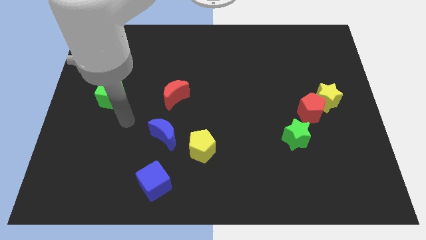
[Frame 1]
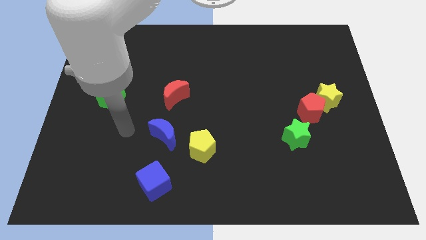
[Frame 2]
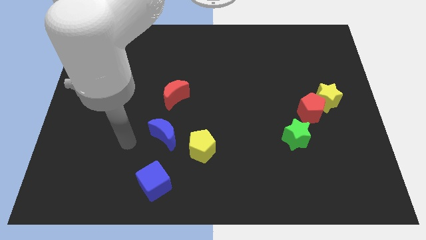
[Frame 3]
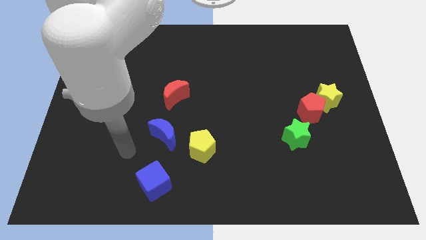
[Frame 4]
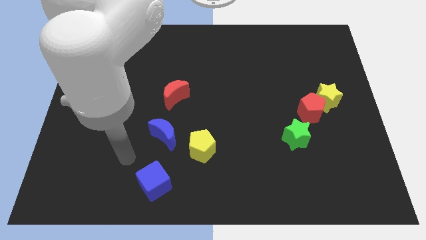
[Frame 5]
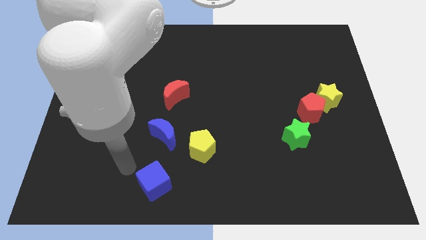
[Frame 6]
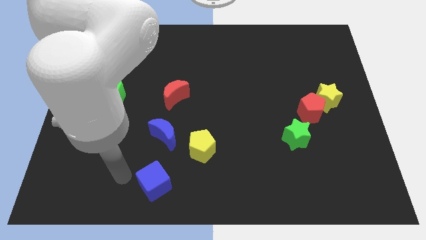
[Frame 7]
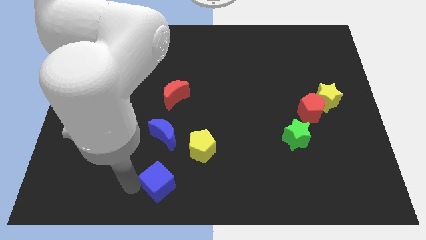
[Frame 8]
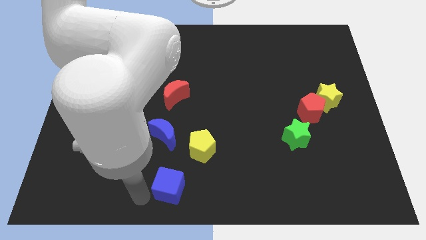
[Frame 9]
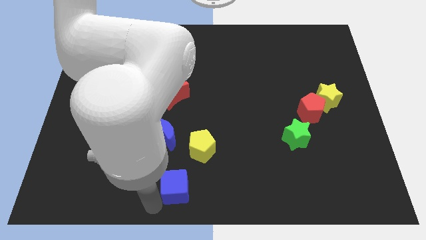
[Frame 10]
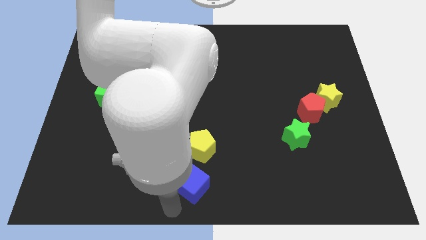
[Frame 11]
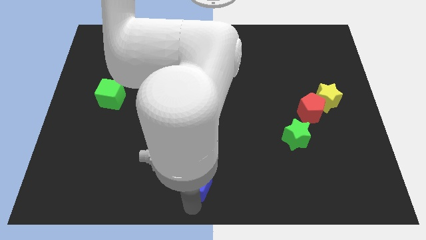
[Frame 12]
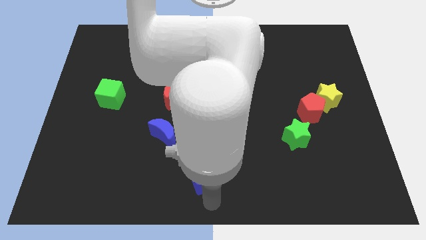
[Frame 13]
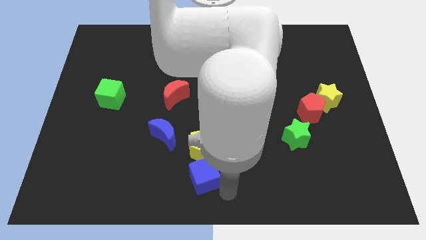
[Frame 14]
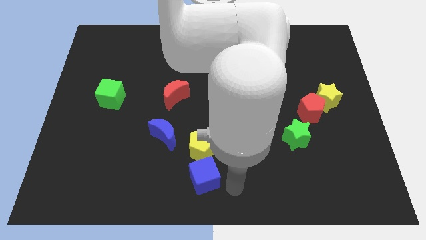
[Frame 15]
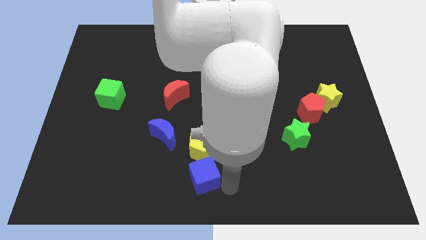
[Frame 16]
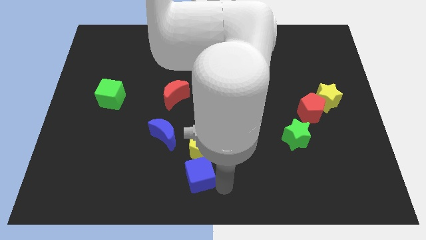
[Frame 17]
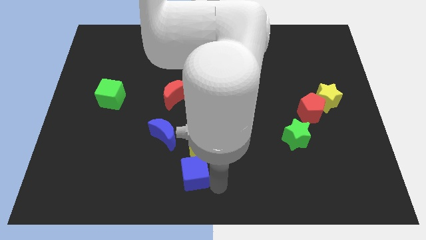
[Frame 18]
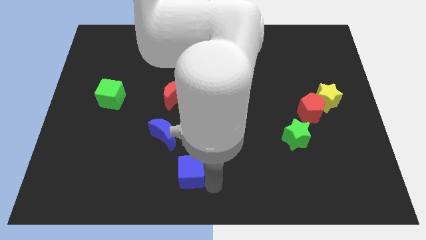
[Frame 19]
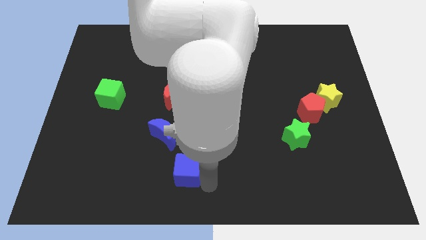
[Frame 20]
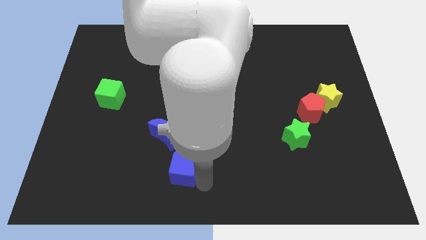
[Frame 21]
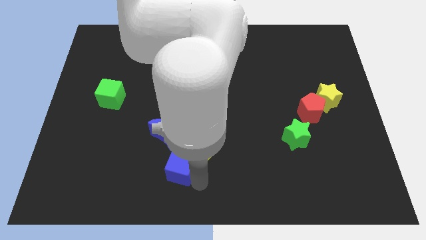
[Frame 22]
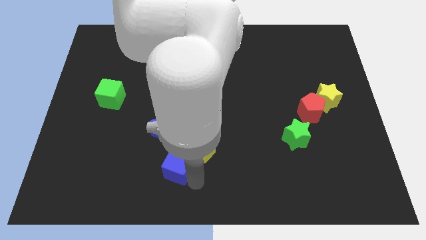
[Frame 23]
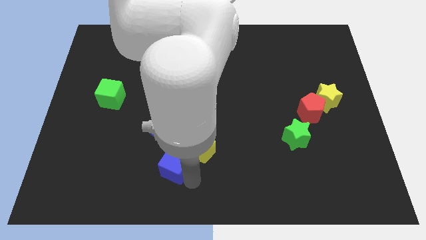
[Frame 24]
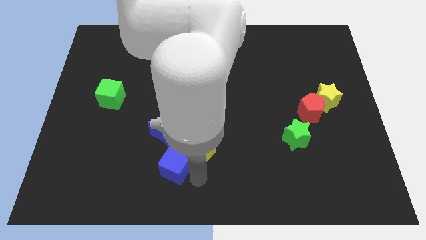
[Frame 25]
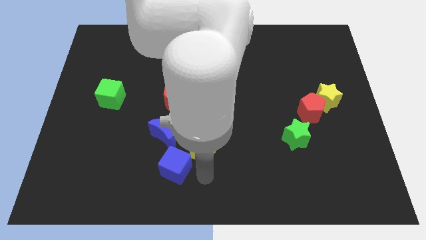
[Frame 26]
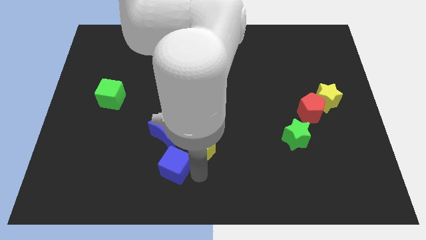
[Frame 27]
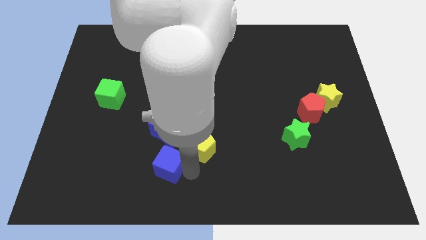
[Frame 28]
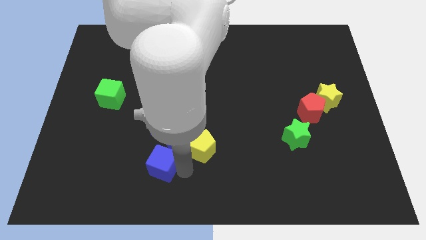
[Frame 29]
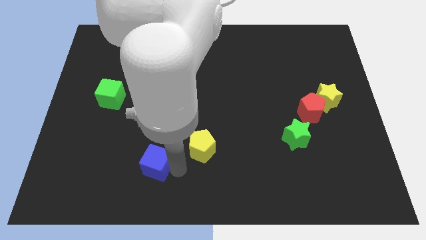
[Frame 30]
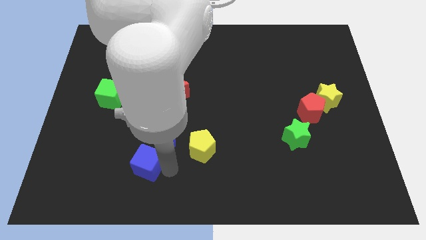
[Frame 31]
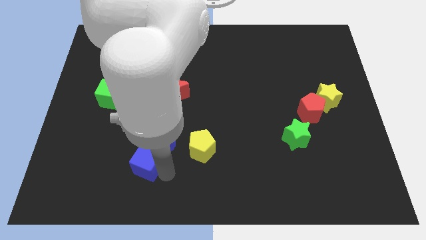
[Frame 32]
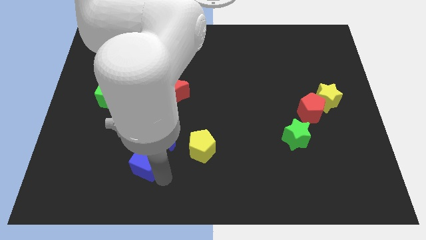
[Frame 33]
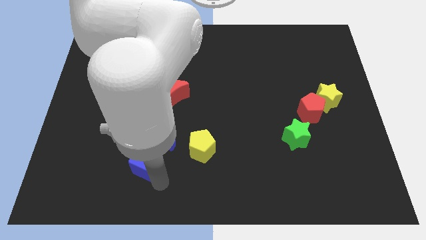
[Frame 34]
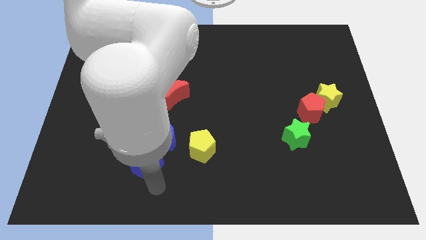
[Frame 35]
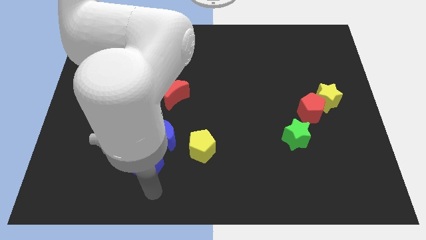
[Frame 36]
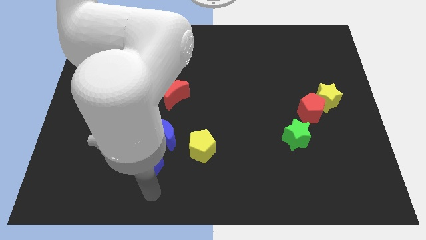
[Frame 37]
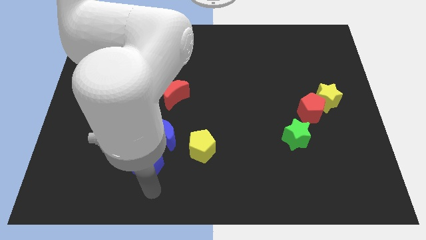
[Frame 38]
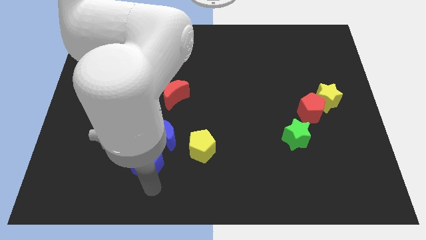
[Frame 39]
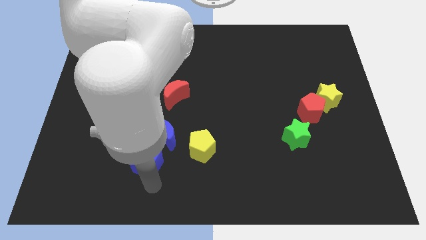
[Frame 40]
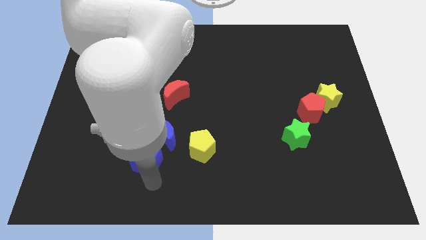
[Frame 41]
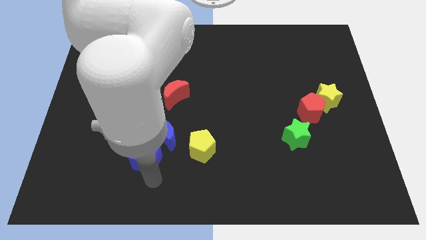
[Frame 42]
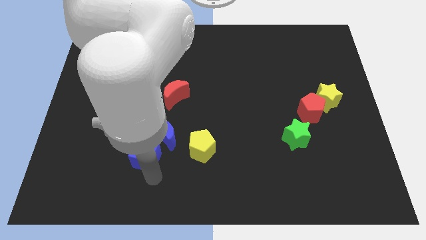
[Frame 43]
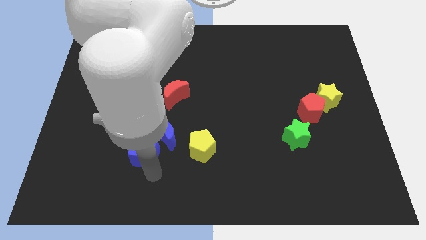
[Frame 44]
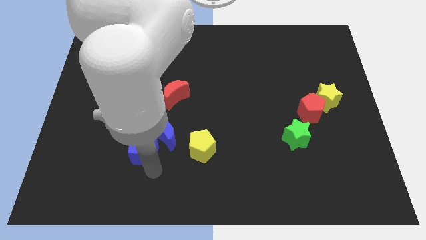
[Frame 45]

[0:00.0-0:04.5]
move the blue cube upwards a little

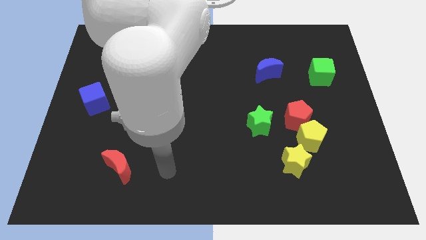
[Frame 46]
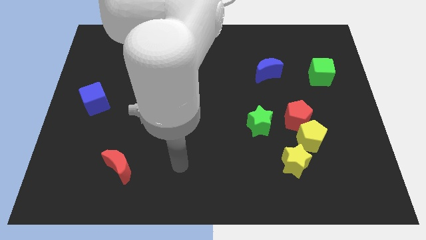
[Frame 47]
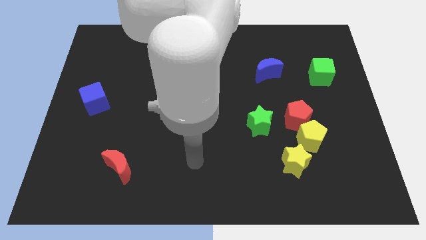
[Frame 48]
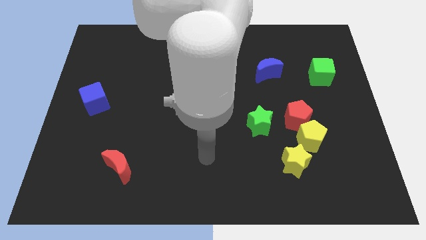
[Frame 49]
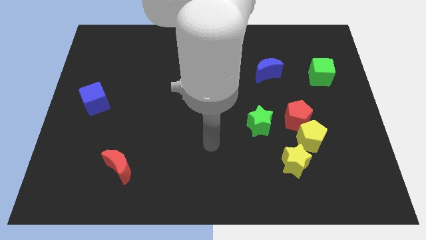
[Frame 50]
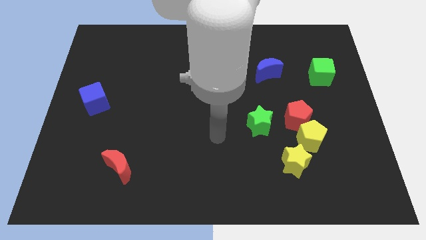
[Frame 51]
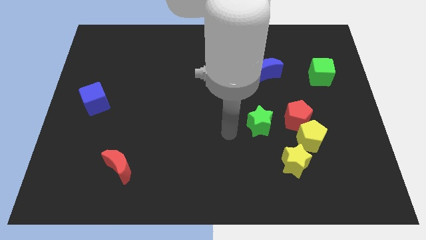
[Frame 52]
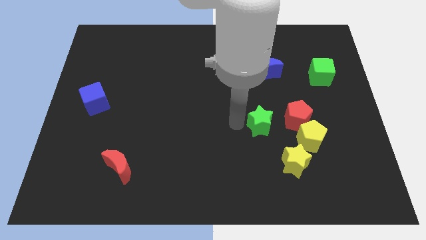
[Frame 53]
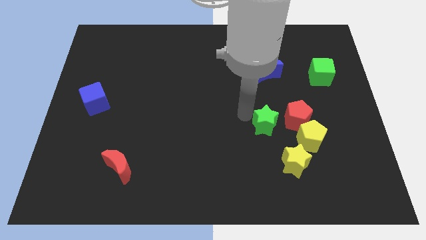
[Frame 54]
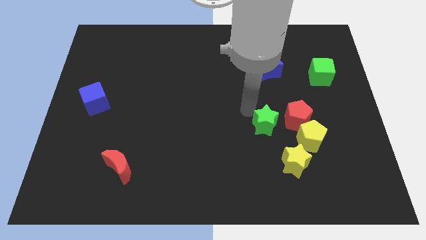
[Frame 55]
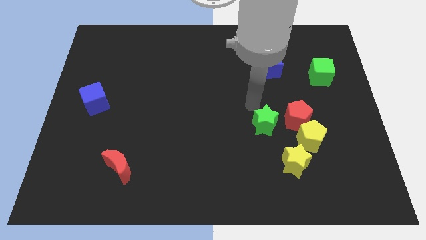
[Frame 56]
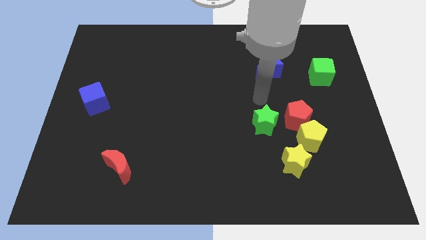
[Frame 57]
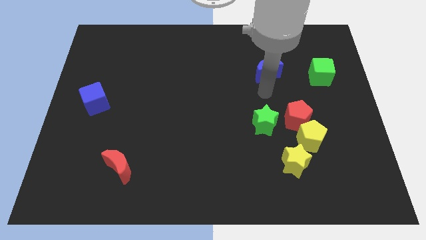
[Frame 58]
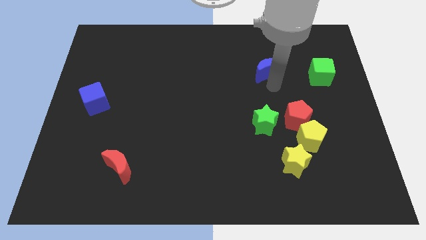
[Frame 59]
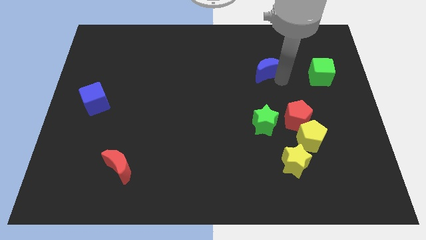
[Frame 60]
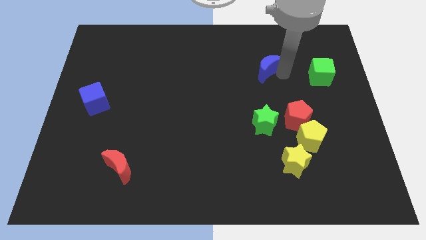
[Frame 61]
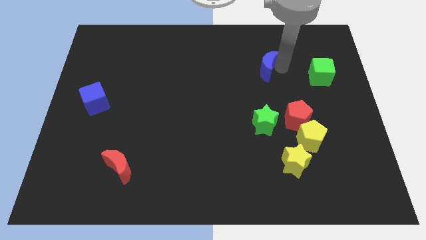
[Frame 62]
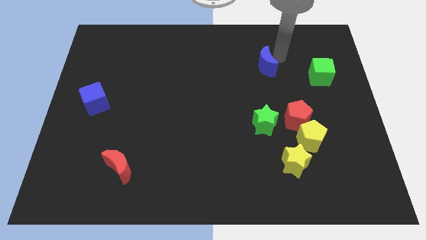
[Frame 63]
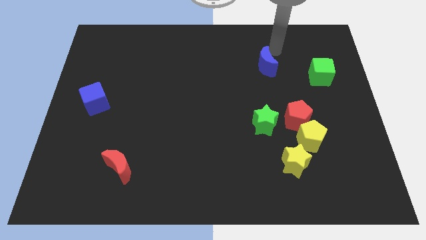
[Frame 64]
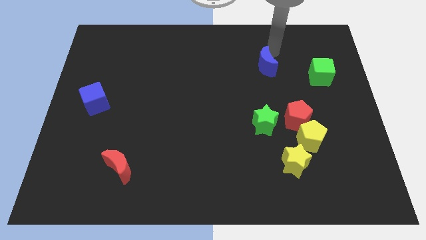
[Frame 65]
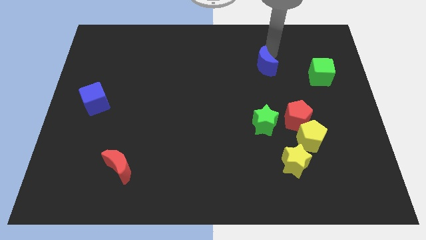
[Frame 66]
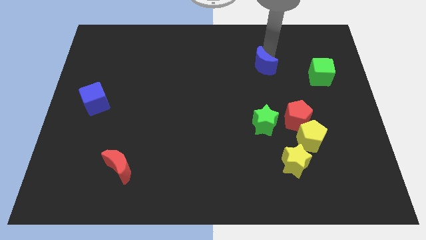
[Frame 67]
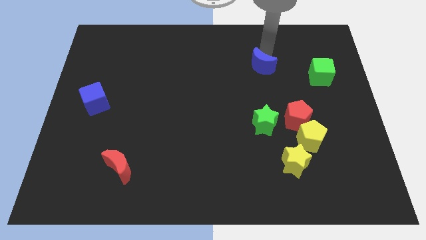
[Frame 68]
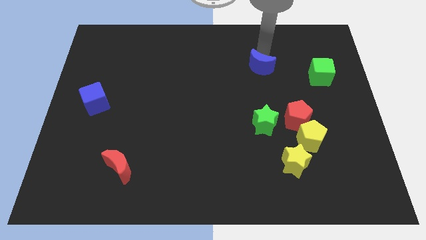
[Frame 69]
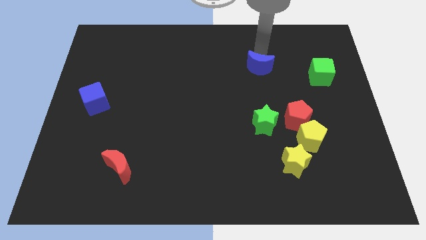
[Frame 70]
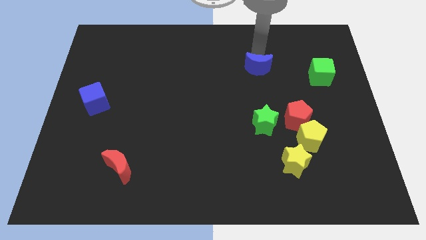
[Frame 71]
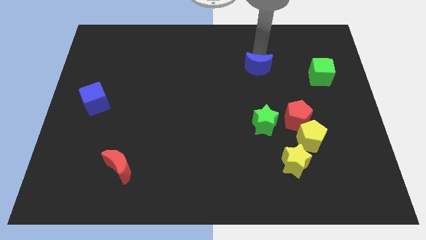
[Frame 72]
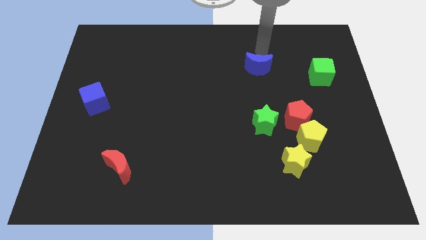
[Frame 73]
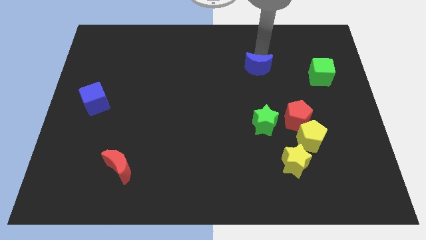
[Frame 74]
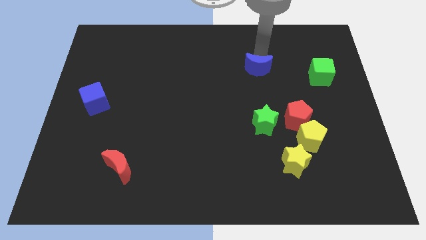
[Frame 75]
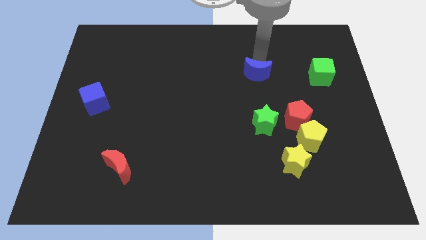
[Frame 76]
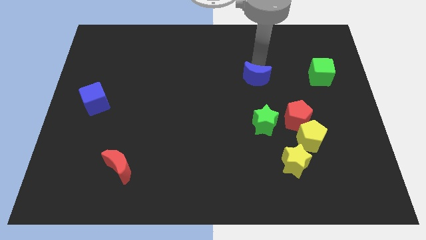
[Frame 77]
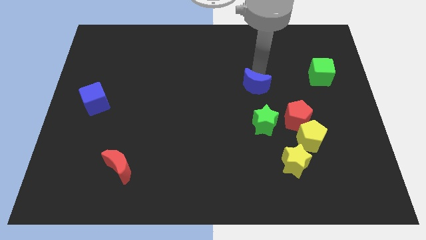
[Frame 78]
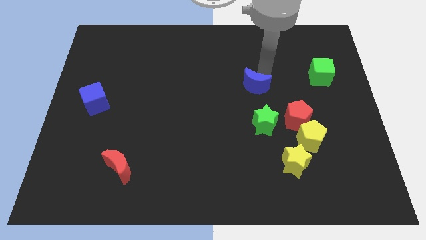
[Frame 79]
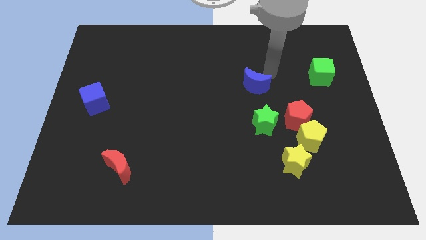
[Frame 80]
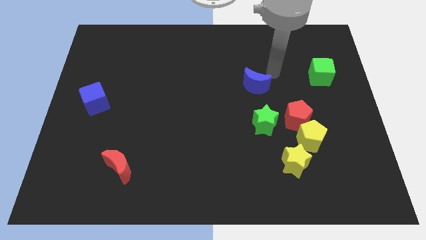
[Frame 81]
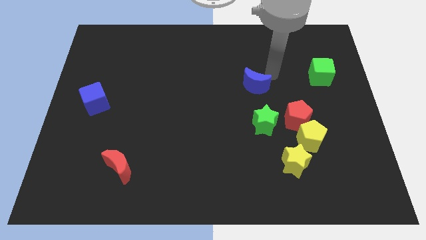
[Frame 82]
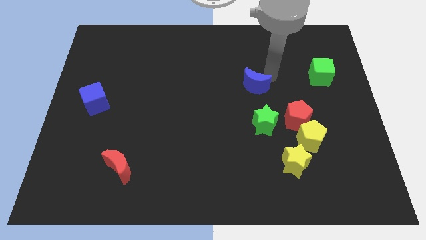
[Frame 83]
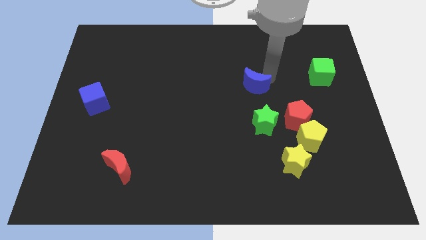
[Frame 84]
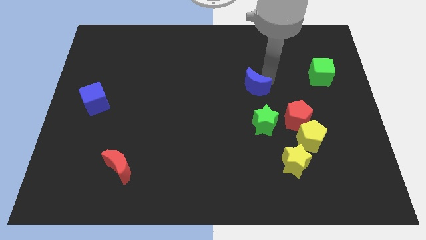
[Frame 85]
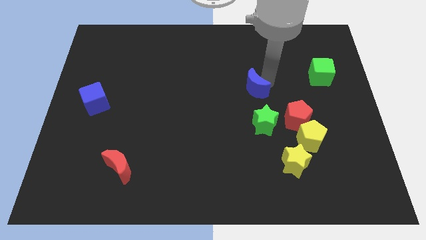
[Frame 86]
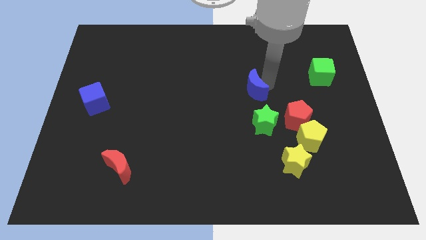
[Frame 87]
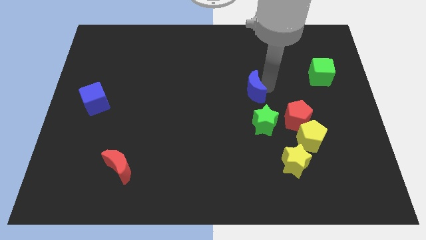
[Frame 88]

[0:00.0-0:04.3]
slightly slide the blue moon downwards and left
